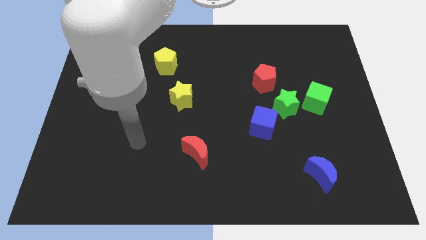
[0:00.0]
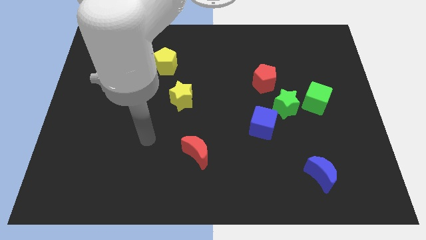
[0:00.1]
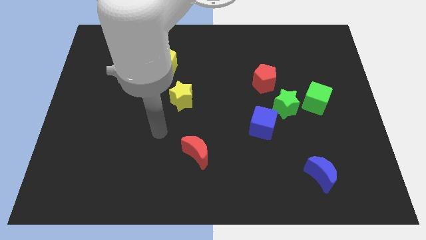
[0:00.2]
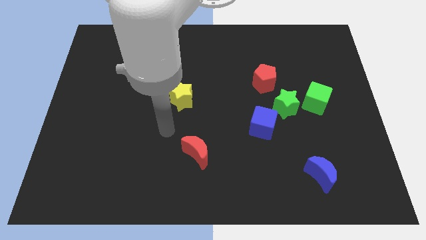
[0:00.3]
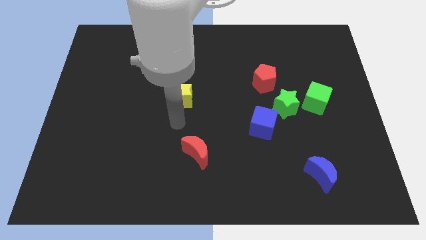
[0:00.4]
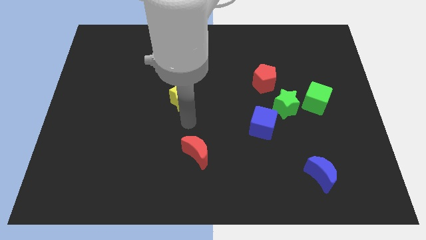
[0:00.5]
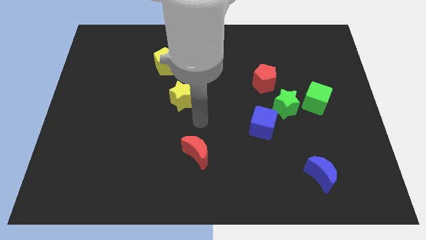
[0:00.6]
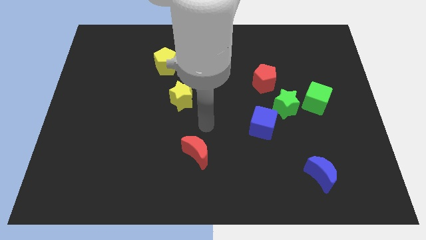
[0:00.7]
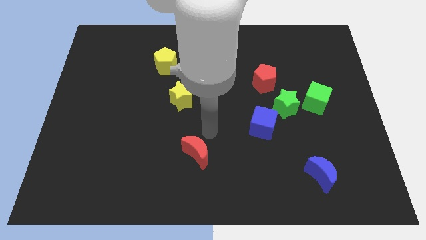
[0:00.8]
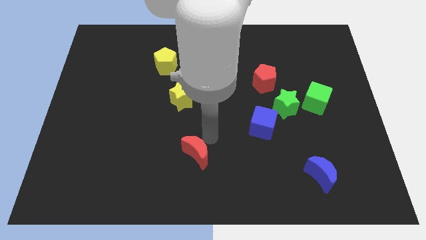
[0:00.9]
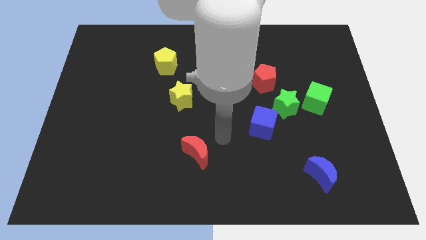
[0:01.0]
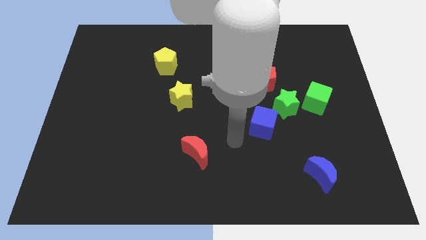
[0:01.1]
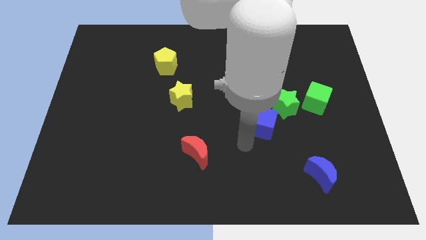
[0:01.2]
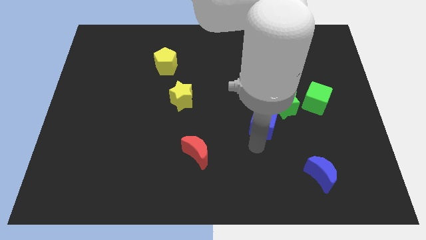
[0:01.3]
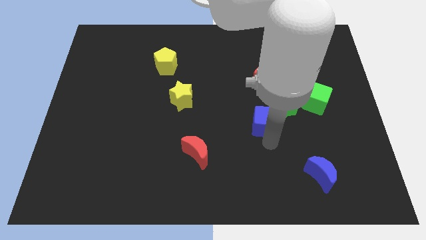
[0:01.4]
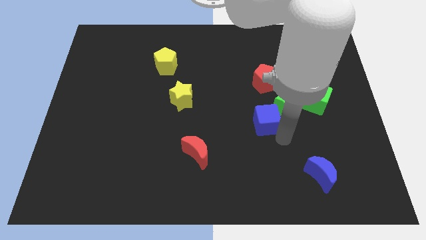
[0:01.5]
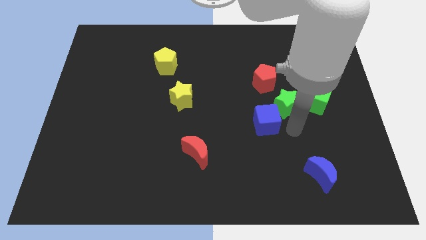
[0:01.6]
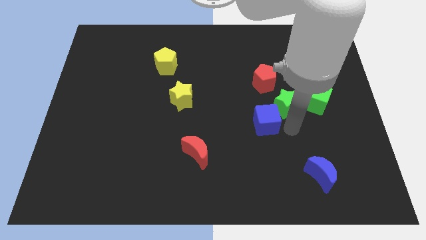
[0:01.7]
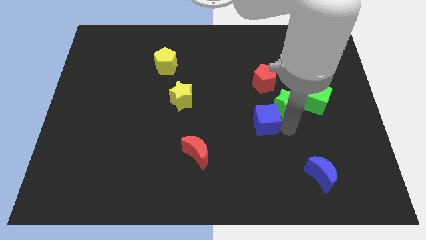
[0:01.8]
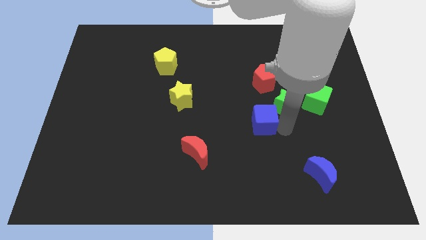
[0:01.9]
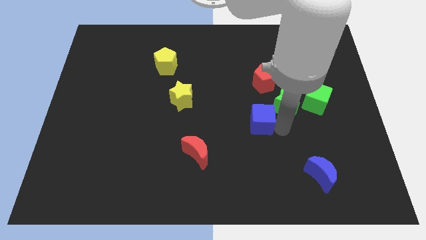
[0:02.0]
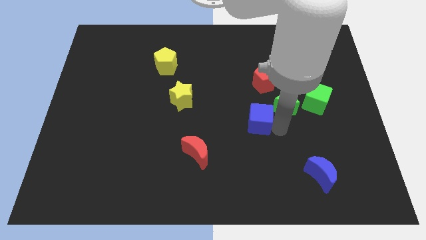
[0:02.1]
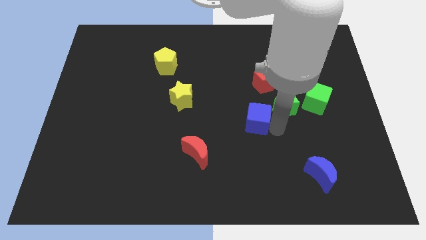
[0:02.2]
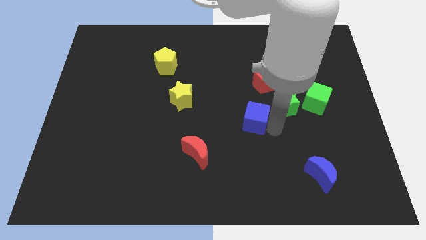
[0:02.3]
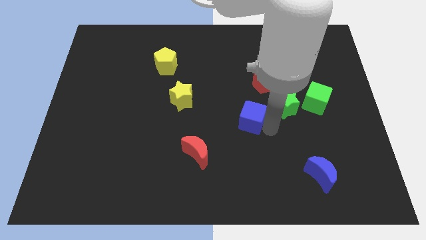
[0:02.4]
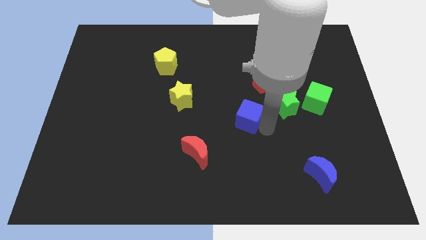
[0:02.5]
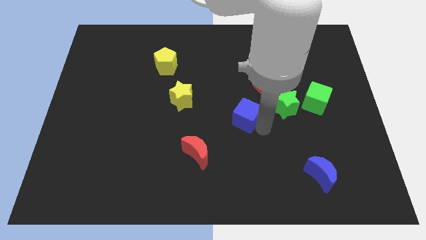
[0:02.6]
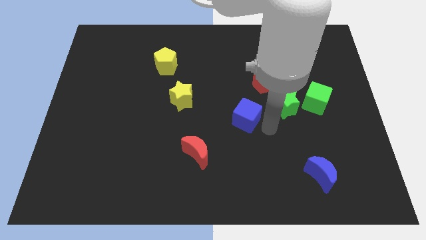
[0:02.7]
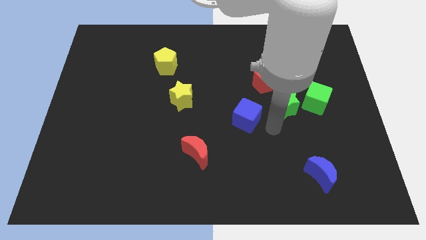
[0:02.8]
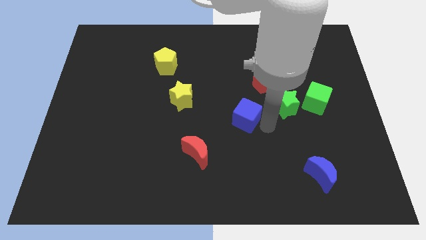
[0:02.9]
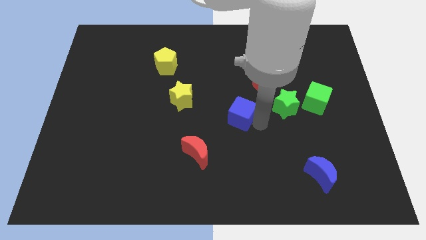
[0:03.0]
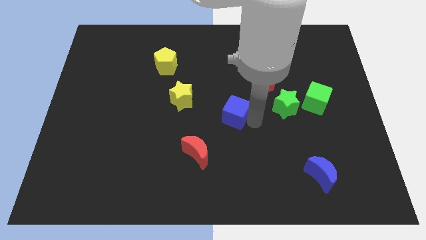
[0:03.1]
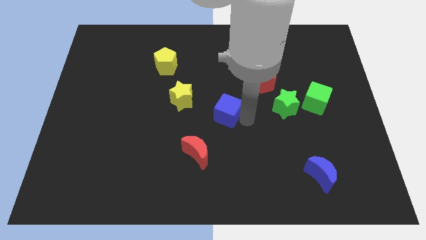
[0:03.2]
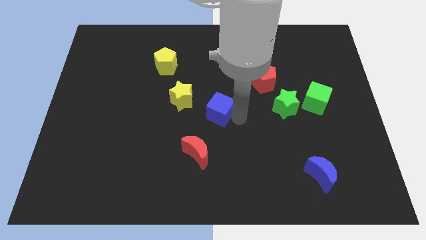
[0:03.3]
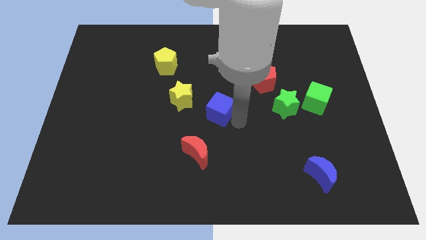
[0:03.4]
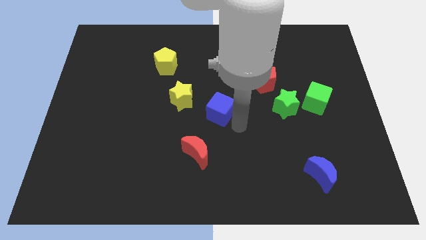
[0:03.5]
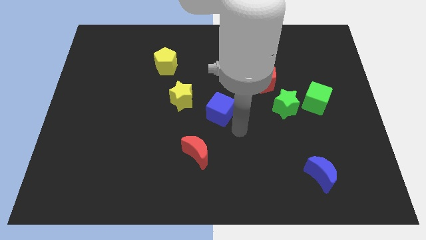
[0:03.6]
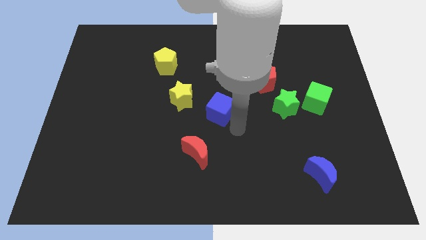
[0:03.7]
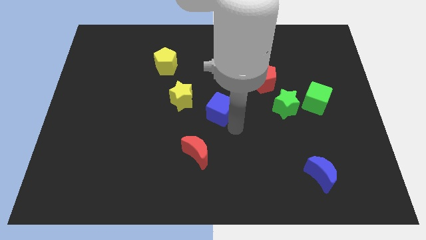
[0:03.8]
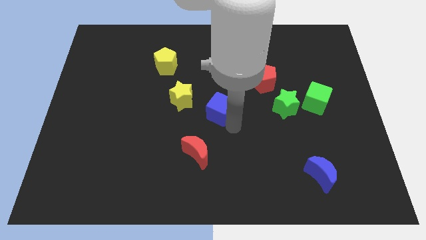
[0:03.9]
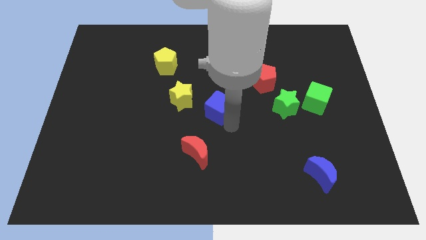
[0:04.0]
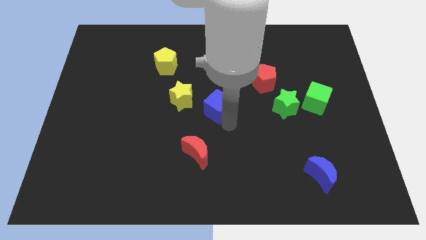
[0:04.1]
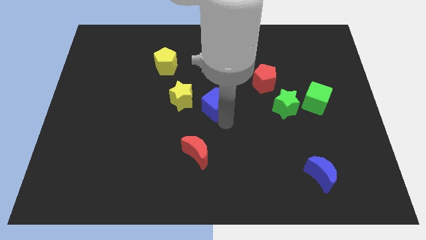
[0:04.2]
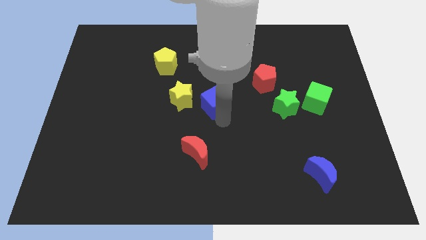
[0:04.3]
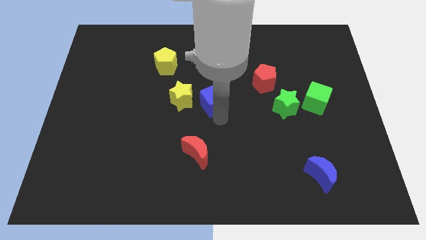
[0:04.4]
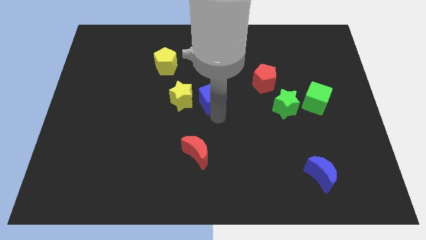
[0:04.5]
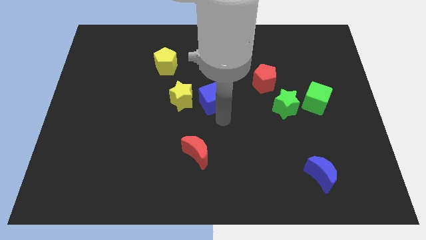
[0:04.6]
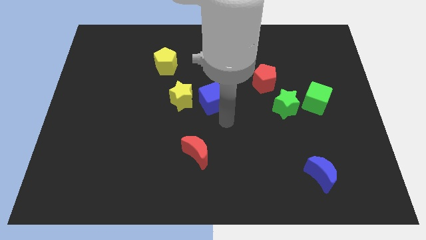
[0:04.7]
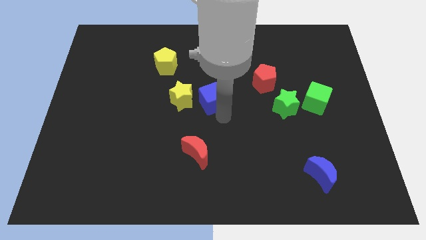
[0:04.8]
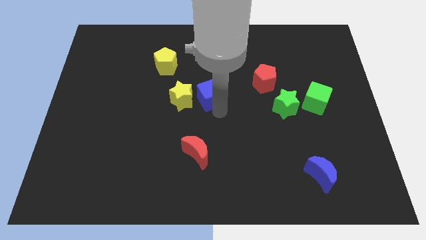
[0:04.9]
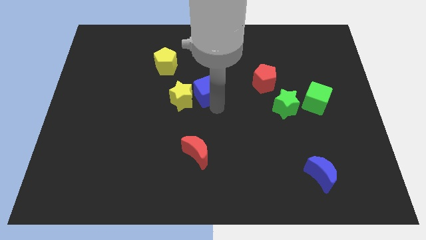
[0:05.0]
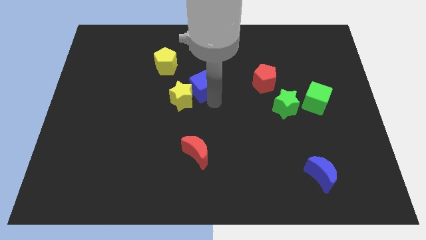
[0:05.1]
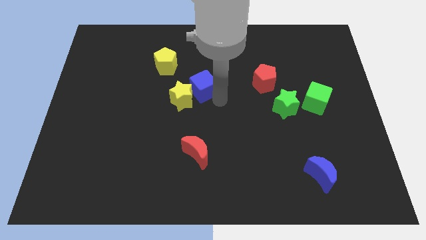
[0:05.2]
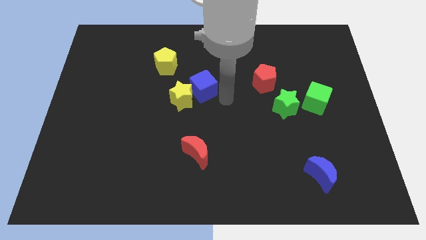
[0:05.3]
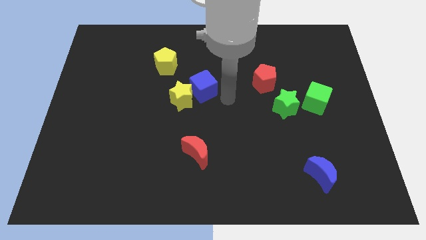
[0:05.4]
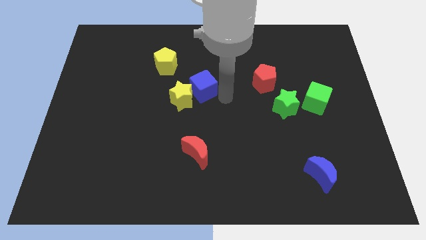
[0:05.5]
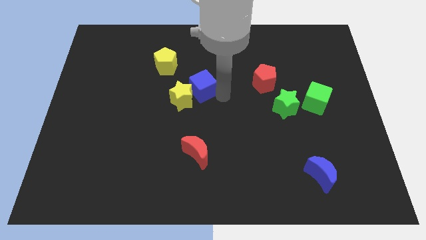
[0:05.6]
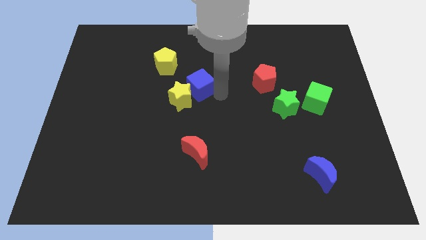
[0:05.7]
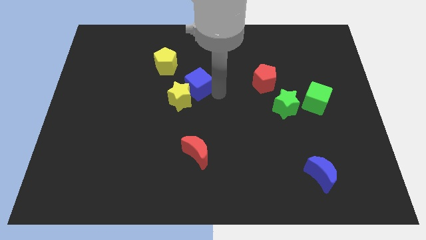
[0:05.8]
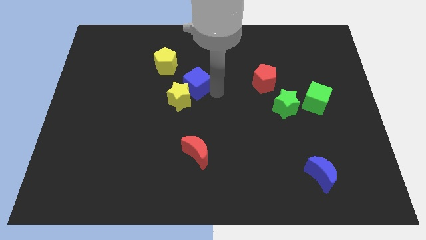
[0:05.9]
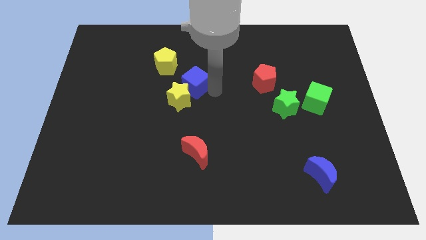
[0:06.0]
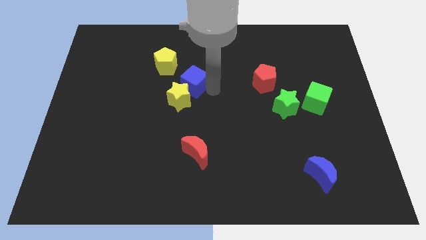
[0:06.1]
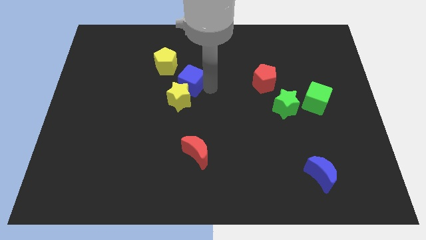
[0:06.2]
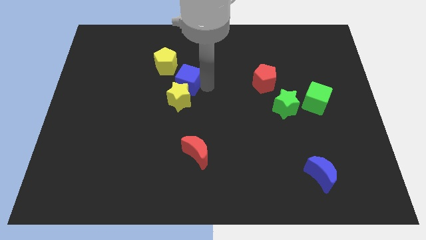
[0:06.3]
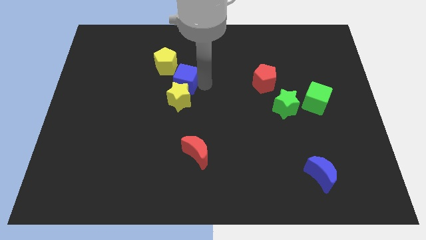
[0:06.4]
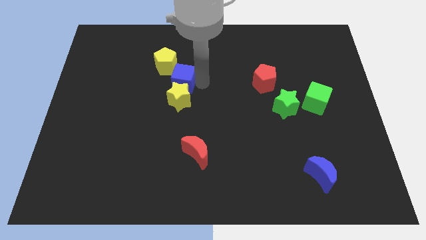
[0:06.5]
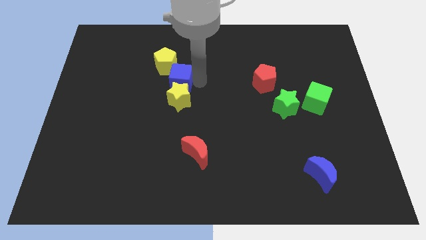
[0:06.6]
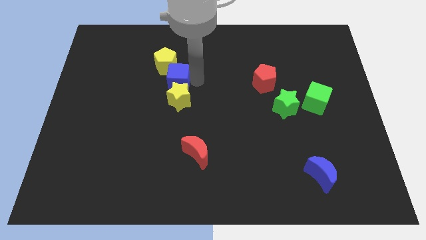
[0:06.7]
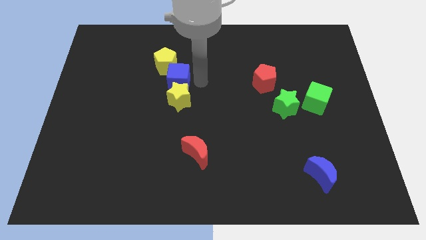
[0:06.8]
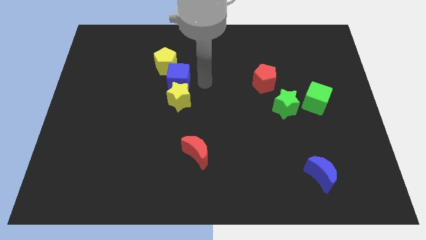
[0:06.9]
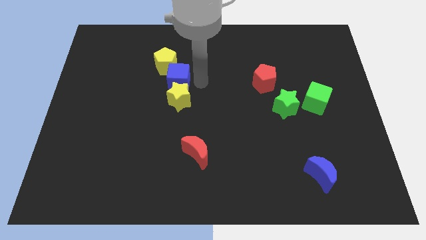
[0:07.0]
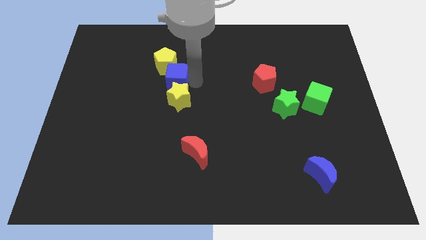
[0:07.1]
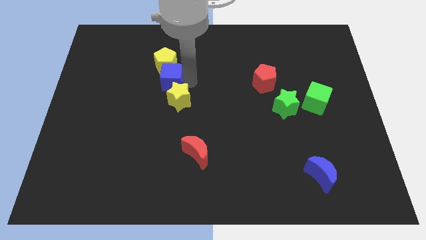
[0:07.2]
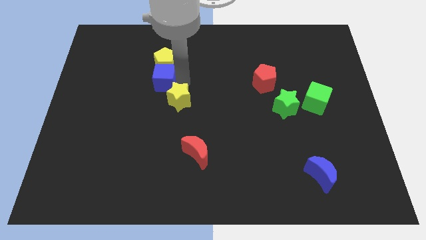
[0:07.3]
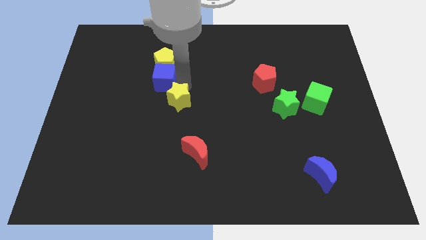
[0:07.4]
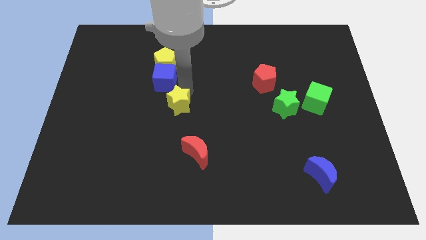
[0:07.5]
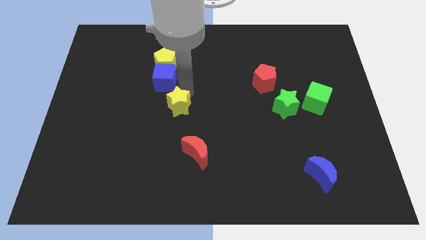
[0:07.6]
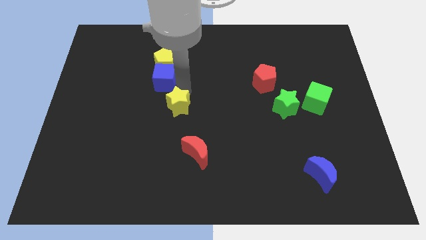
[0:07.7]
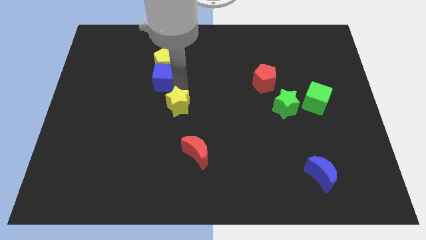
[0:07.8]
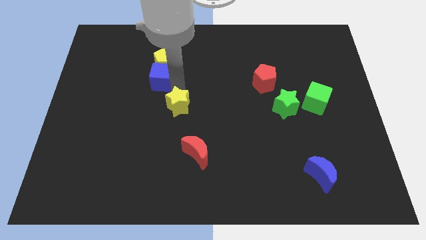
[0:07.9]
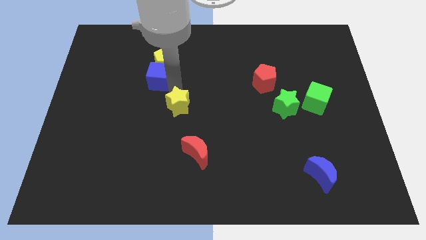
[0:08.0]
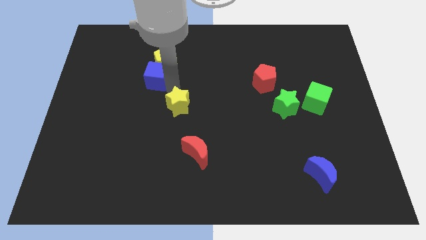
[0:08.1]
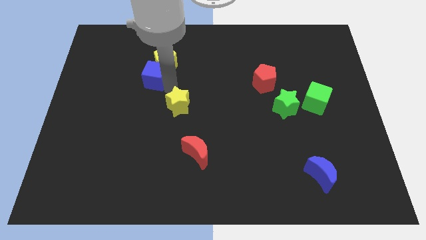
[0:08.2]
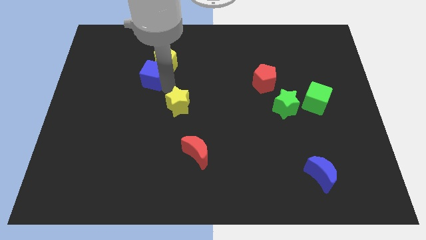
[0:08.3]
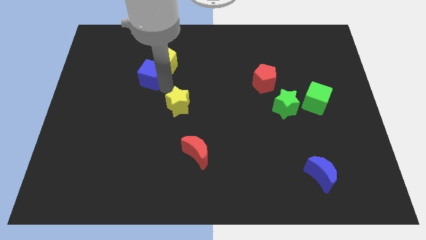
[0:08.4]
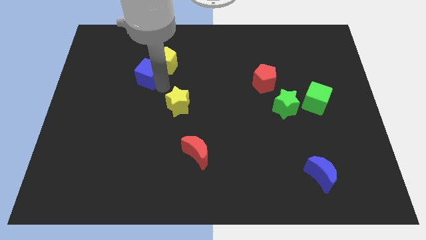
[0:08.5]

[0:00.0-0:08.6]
put the blue cube to the left of the yellow pentagon
